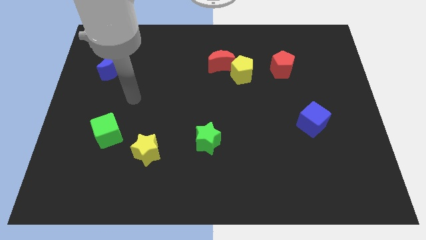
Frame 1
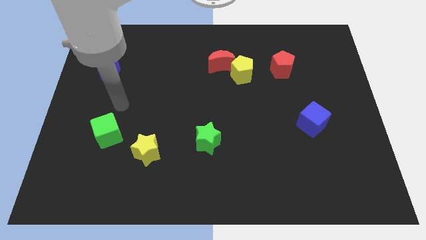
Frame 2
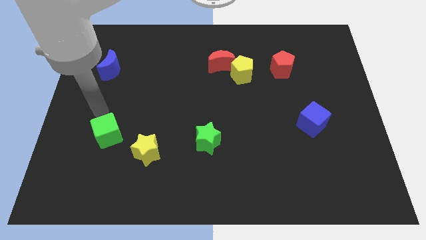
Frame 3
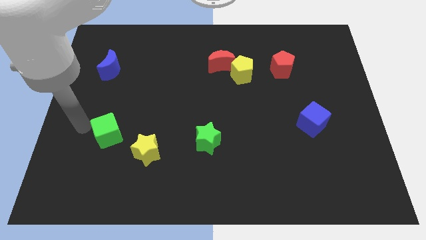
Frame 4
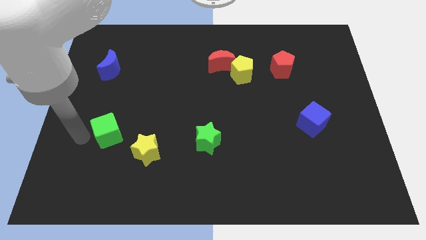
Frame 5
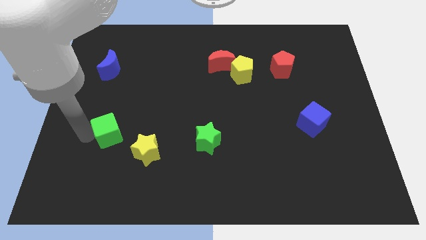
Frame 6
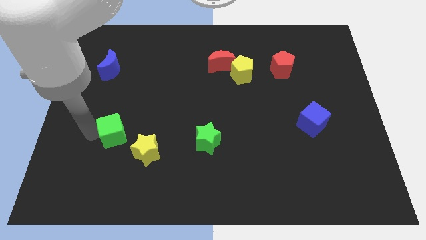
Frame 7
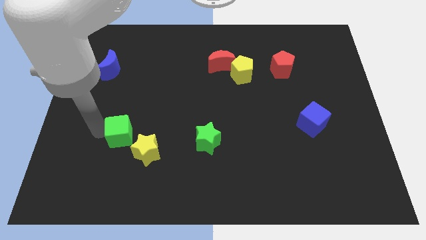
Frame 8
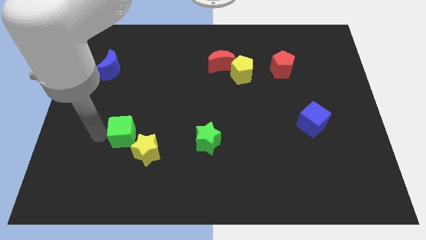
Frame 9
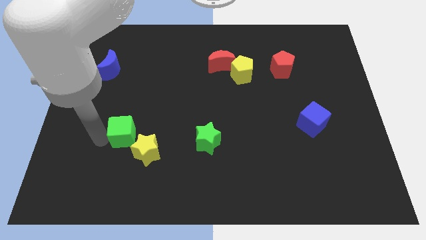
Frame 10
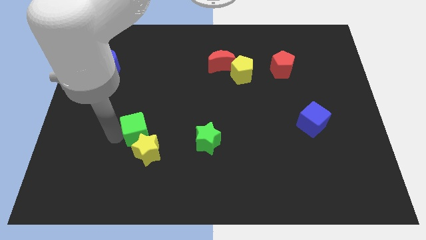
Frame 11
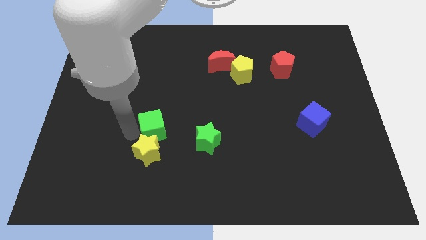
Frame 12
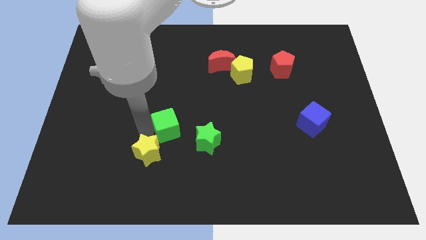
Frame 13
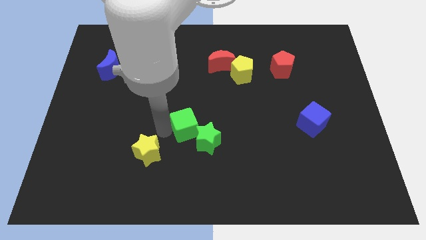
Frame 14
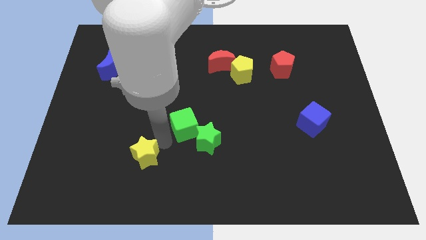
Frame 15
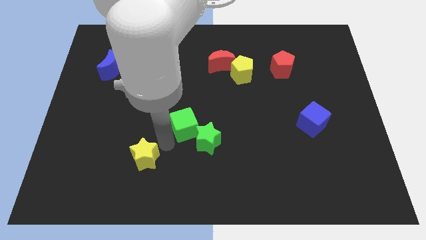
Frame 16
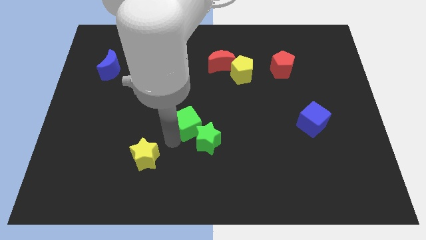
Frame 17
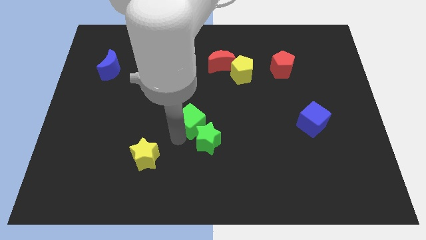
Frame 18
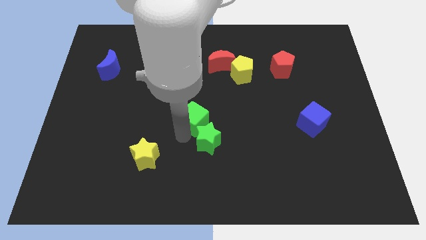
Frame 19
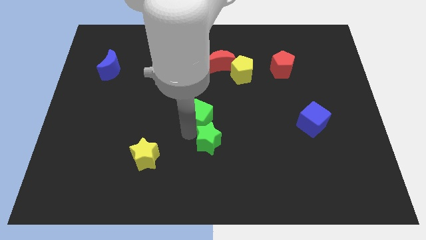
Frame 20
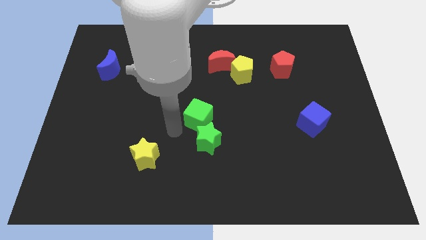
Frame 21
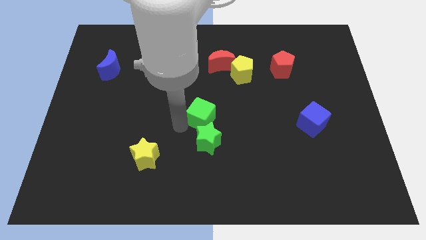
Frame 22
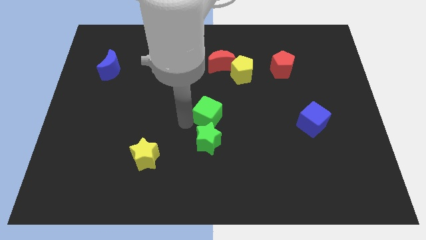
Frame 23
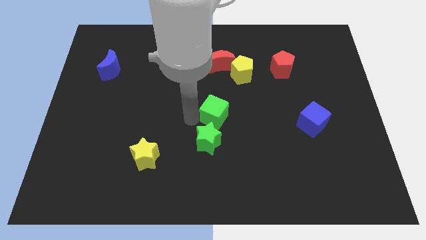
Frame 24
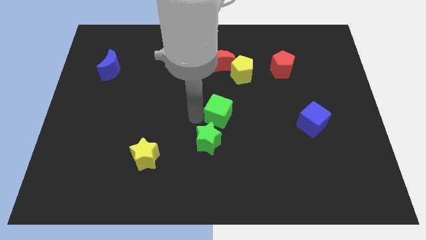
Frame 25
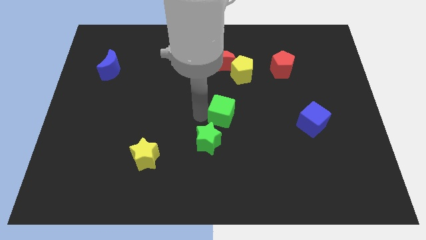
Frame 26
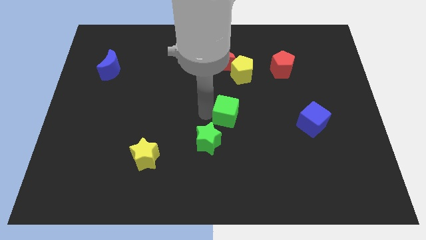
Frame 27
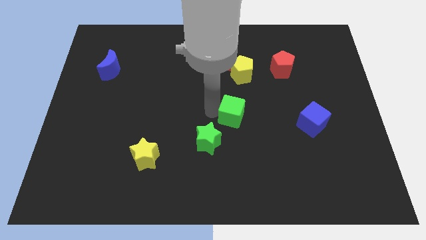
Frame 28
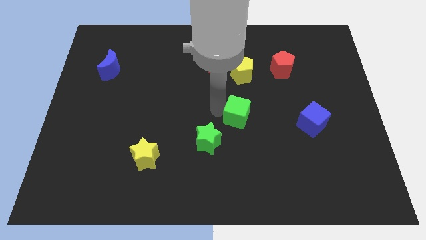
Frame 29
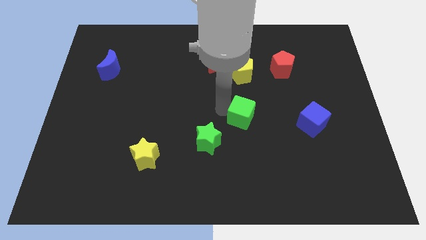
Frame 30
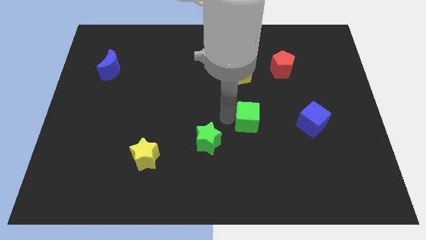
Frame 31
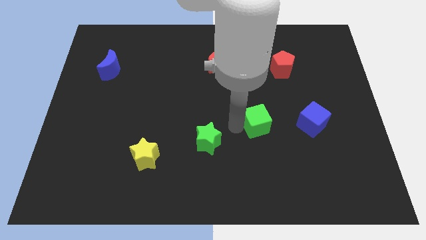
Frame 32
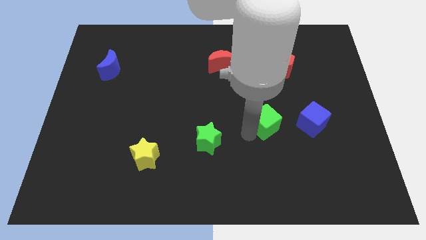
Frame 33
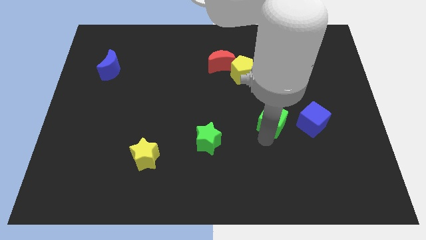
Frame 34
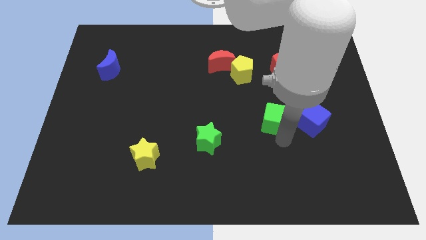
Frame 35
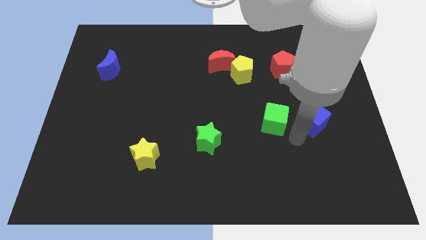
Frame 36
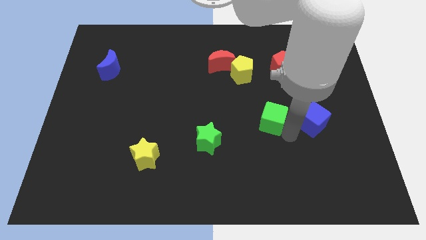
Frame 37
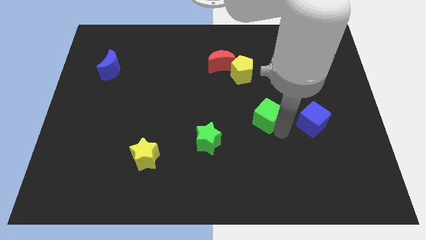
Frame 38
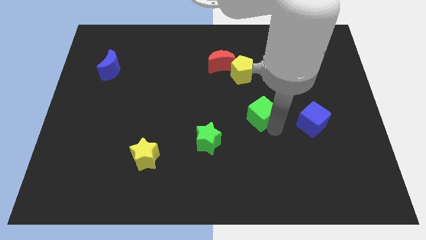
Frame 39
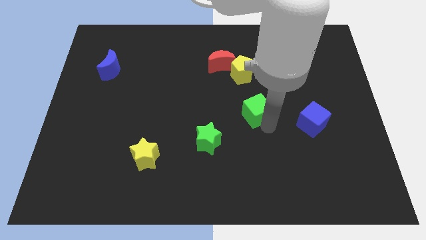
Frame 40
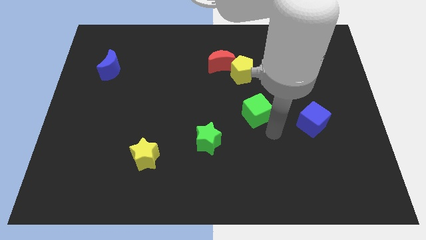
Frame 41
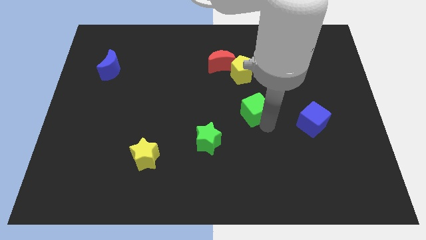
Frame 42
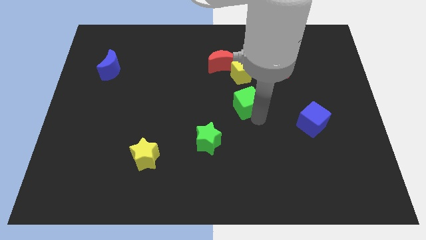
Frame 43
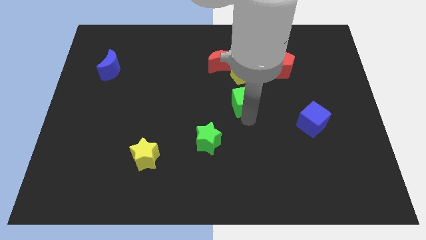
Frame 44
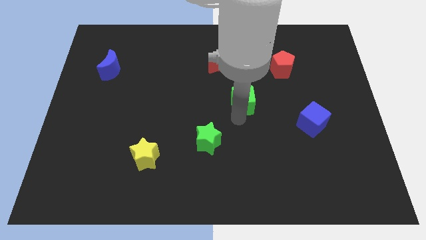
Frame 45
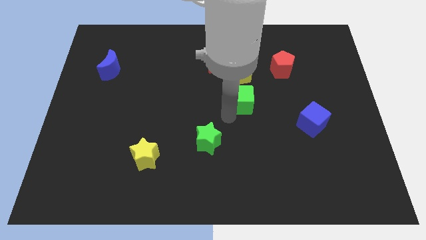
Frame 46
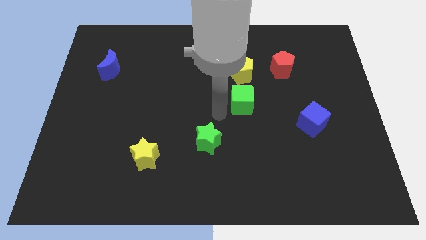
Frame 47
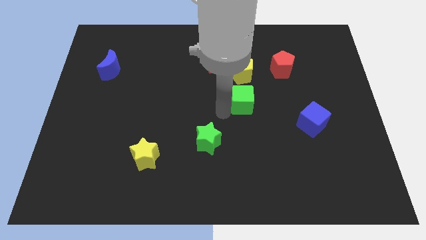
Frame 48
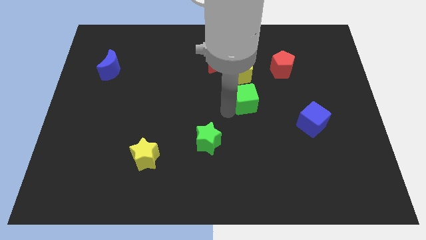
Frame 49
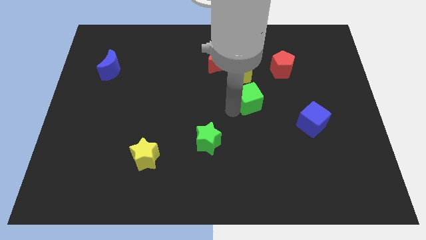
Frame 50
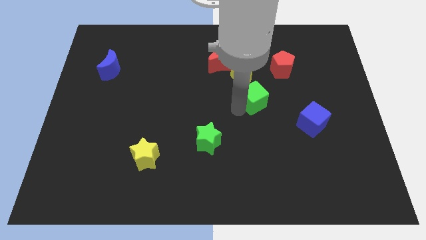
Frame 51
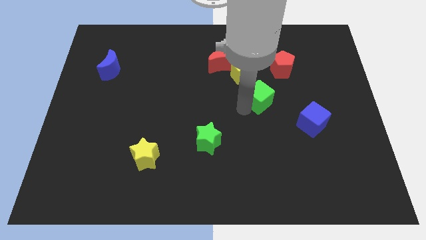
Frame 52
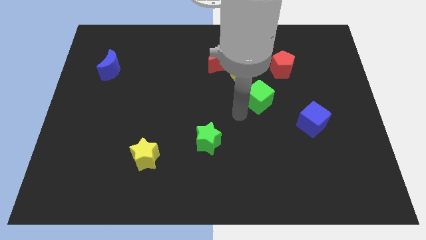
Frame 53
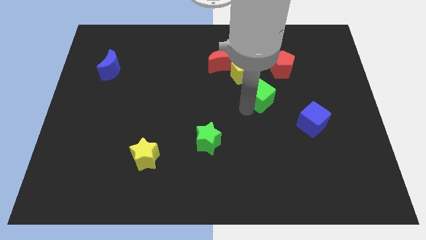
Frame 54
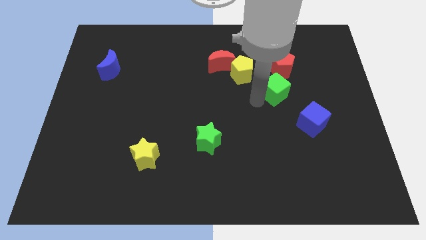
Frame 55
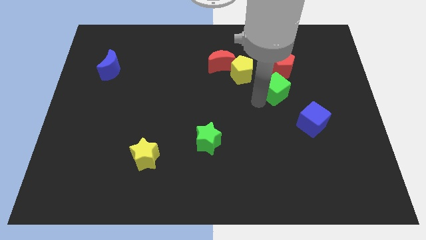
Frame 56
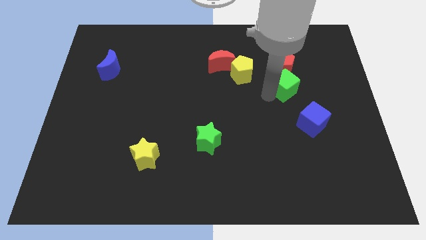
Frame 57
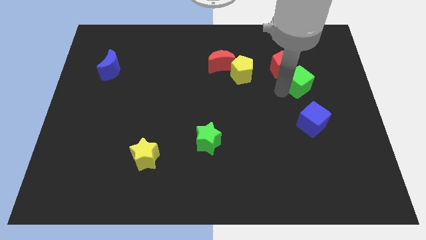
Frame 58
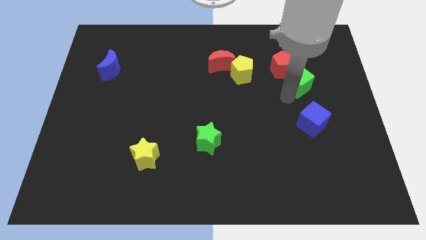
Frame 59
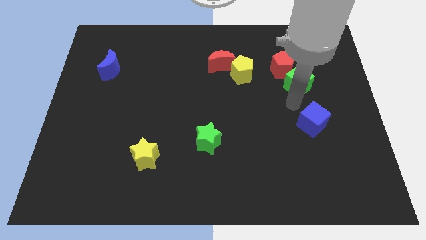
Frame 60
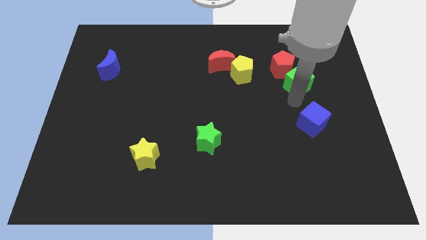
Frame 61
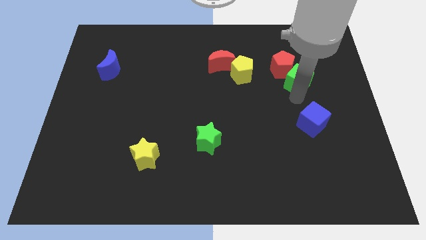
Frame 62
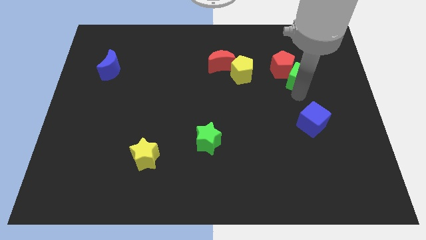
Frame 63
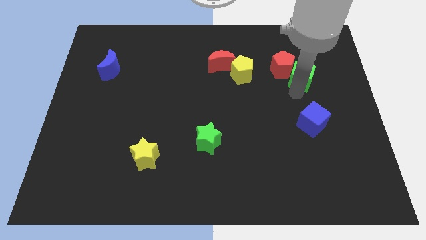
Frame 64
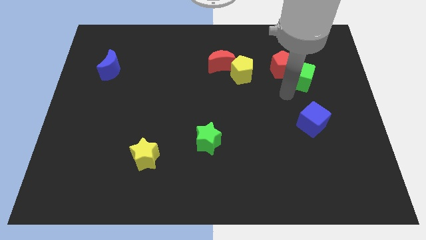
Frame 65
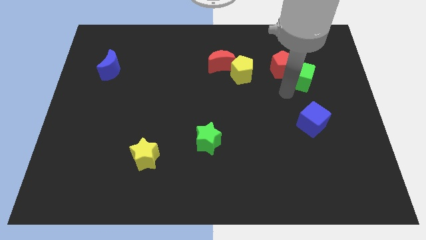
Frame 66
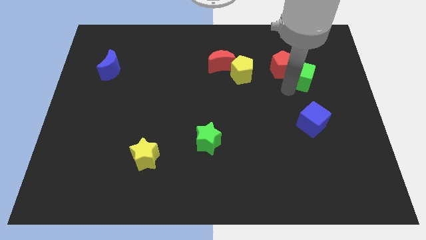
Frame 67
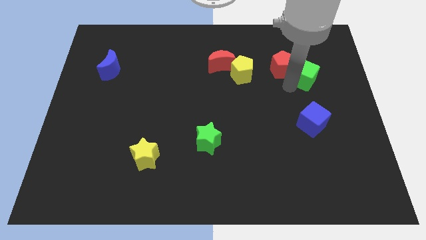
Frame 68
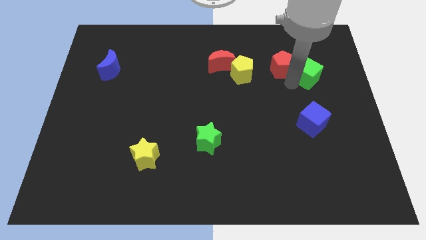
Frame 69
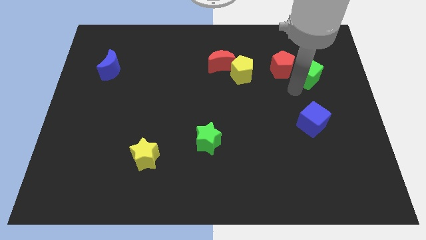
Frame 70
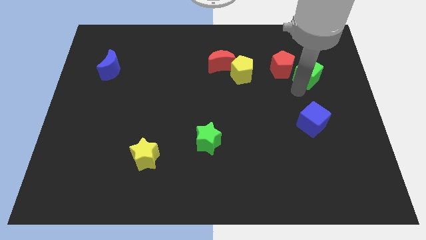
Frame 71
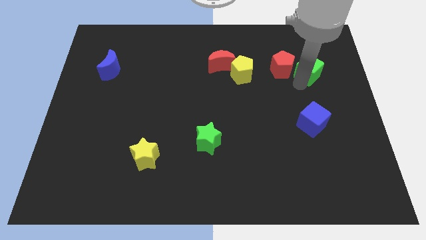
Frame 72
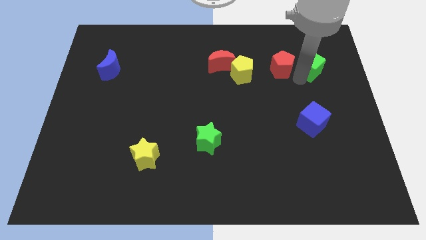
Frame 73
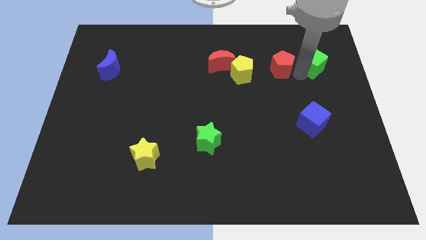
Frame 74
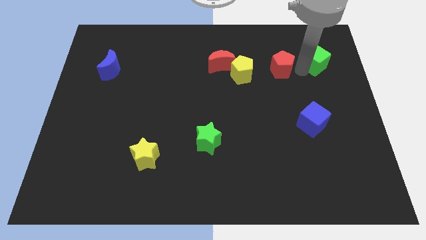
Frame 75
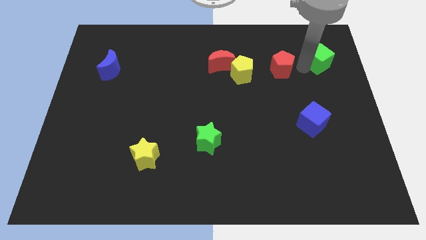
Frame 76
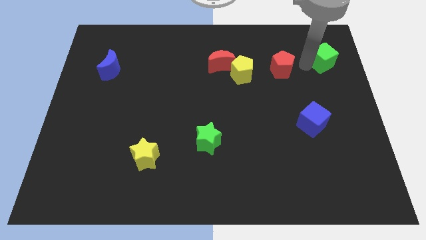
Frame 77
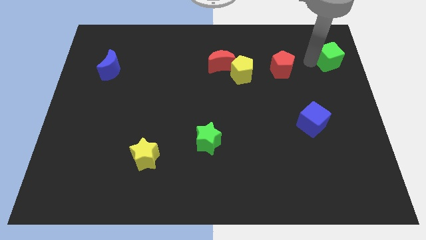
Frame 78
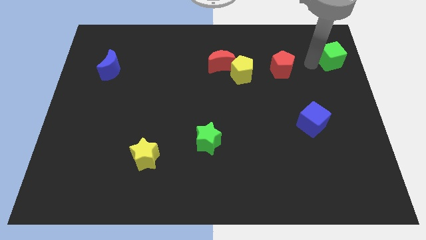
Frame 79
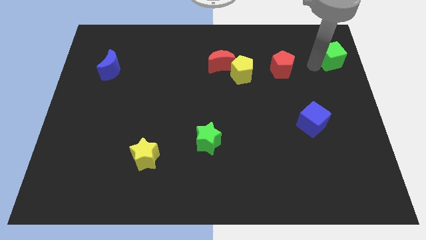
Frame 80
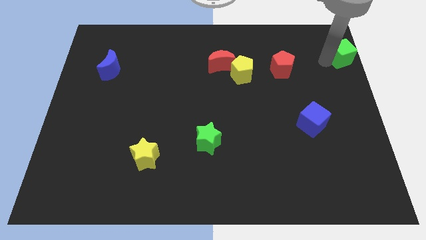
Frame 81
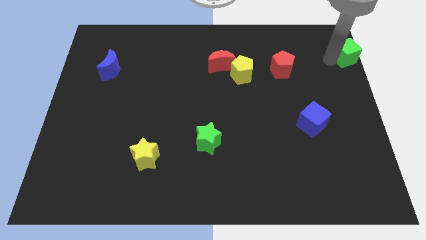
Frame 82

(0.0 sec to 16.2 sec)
put the green cube to the upper right corner
